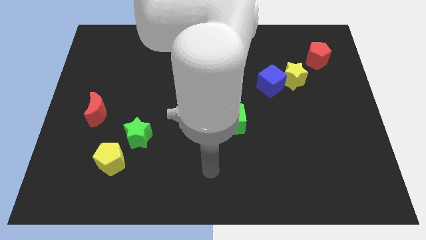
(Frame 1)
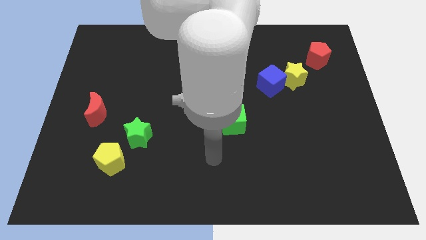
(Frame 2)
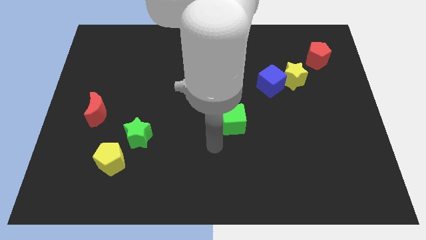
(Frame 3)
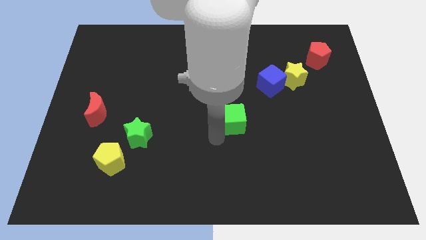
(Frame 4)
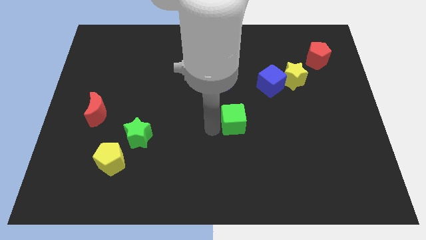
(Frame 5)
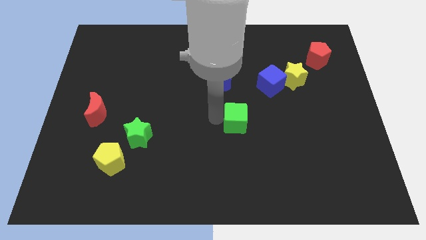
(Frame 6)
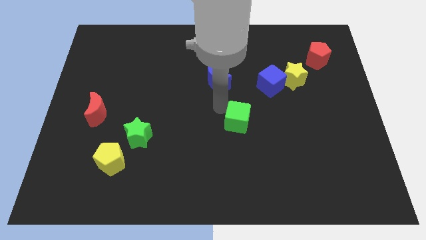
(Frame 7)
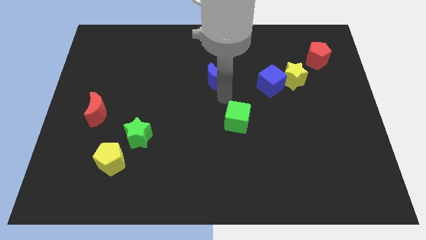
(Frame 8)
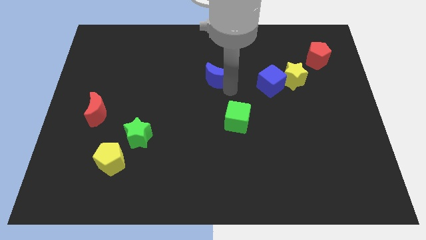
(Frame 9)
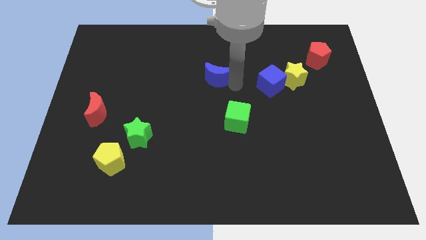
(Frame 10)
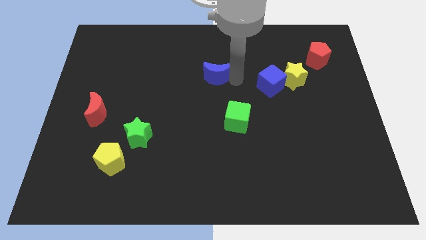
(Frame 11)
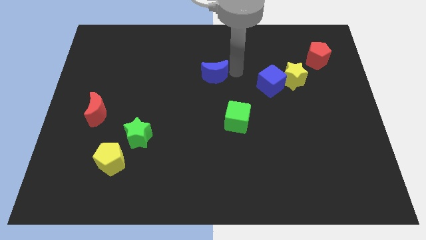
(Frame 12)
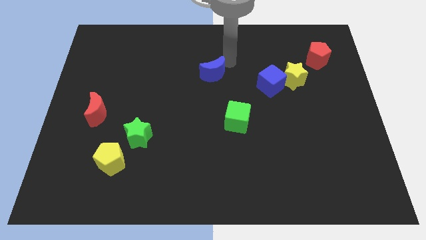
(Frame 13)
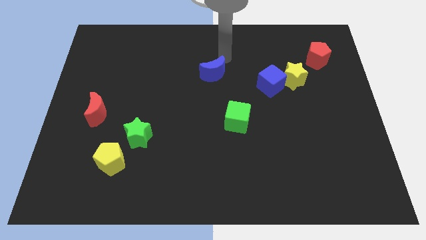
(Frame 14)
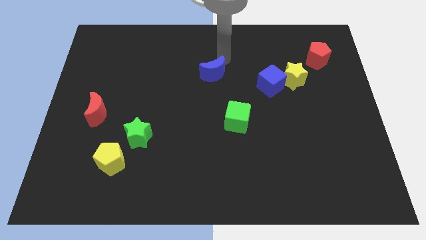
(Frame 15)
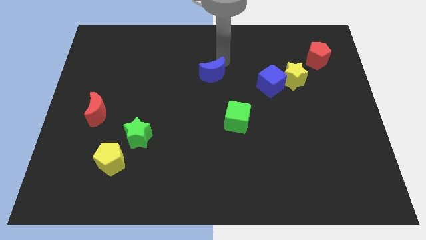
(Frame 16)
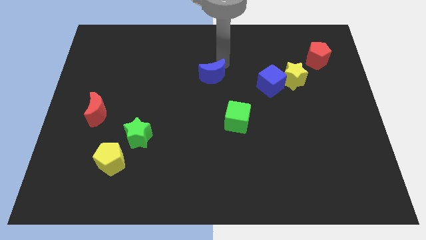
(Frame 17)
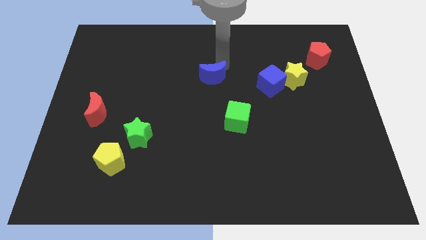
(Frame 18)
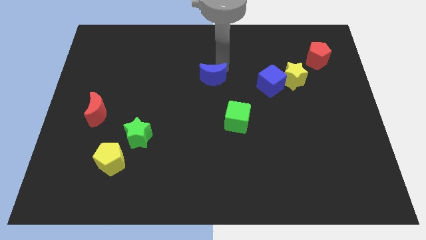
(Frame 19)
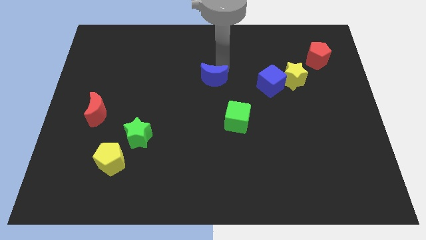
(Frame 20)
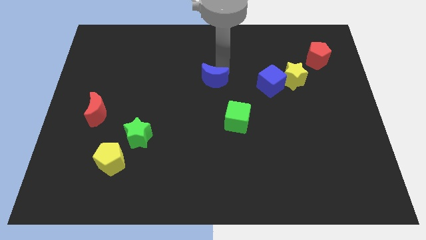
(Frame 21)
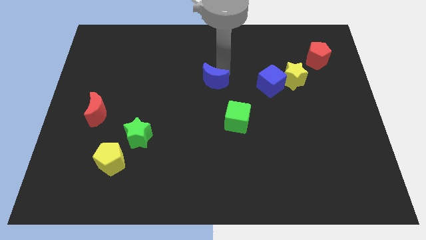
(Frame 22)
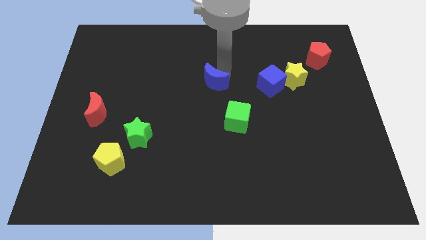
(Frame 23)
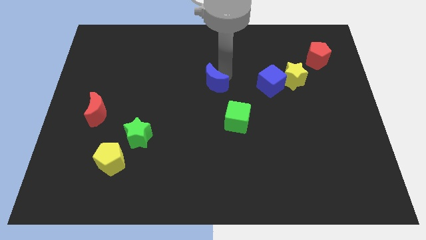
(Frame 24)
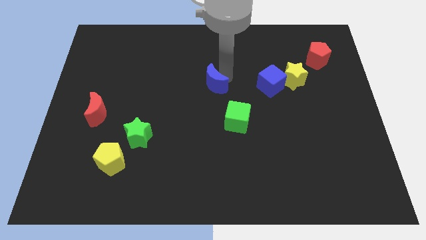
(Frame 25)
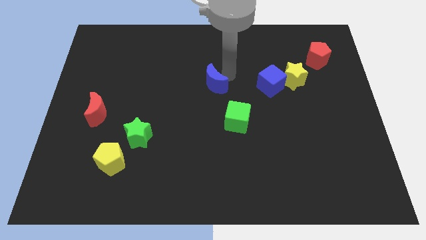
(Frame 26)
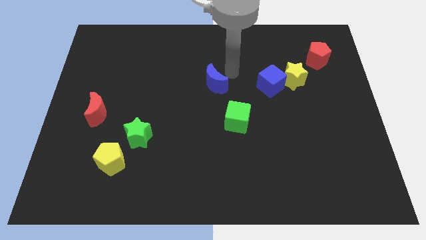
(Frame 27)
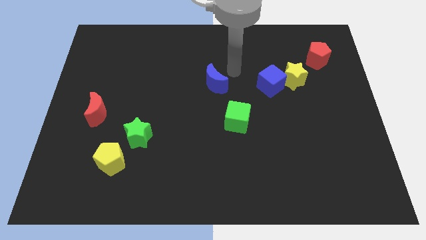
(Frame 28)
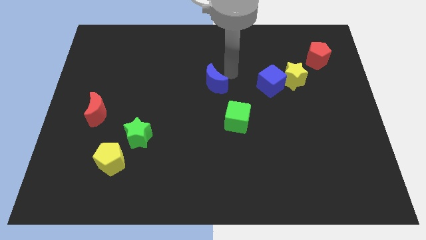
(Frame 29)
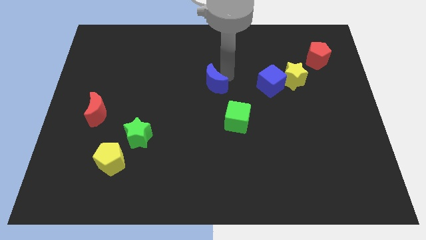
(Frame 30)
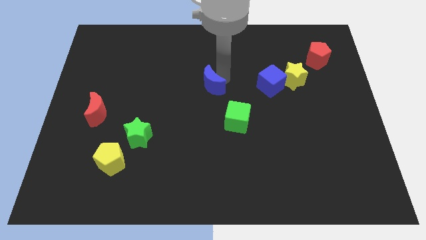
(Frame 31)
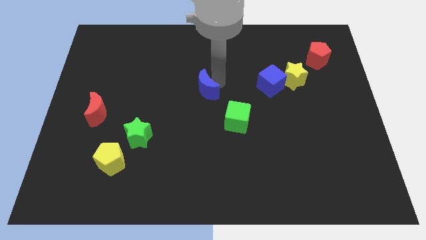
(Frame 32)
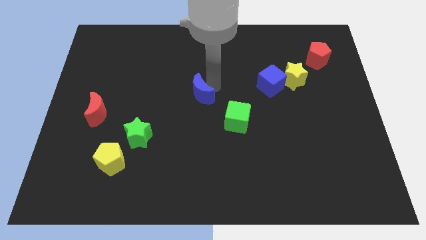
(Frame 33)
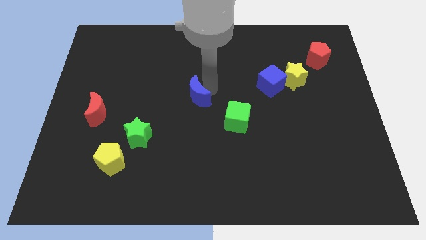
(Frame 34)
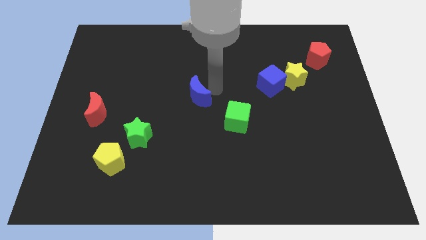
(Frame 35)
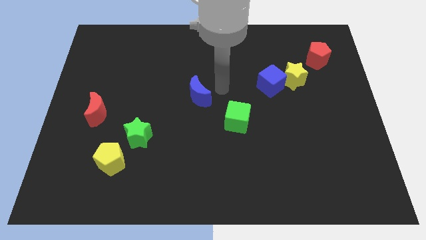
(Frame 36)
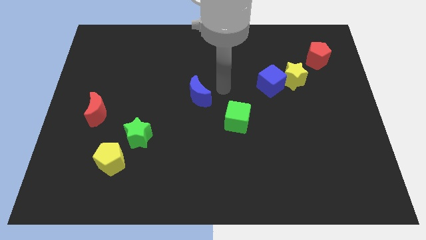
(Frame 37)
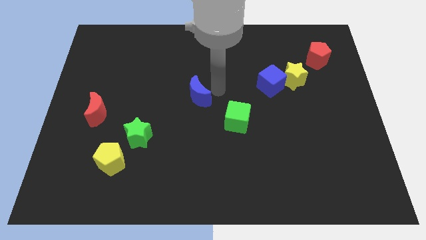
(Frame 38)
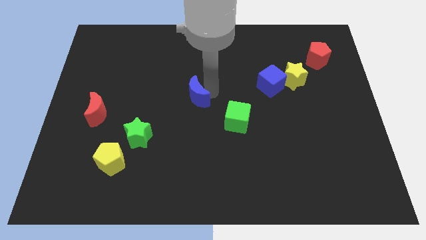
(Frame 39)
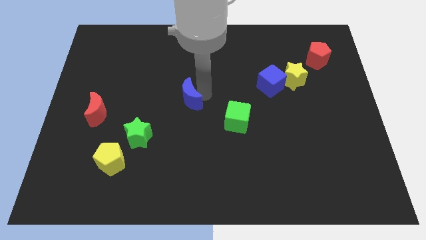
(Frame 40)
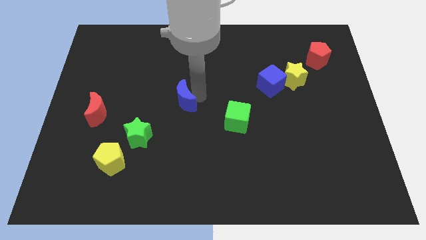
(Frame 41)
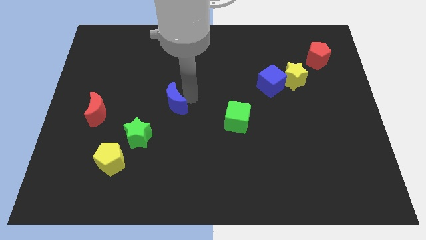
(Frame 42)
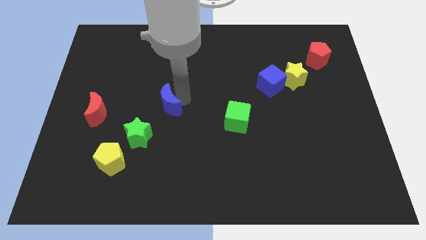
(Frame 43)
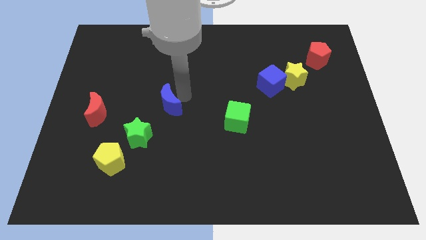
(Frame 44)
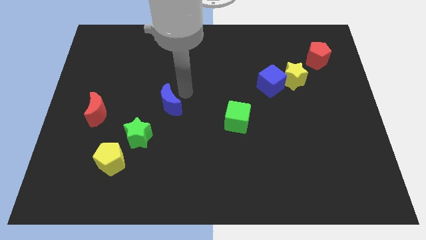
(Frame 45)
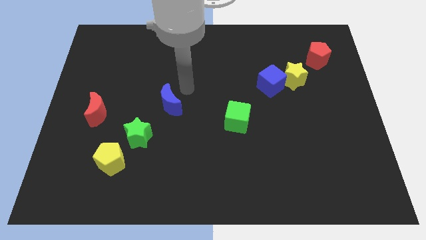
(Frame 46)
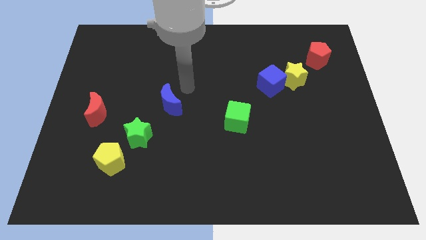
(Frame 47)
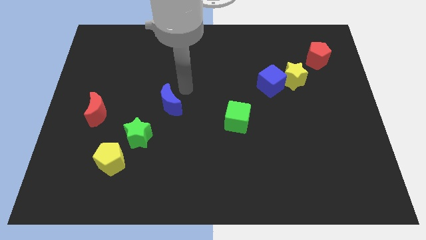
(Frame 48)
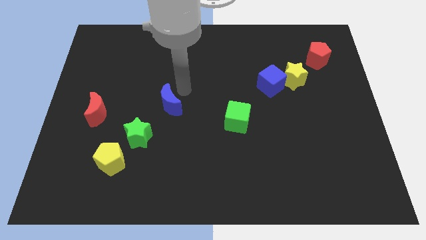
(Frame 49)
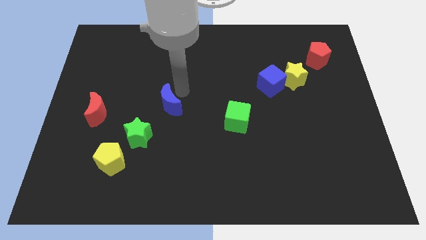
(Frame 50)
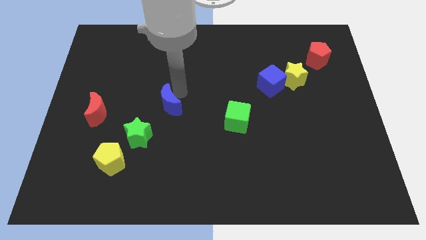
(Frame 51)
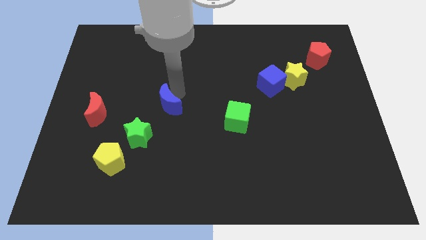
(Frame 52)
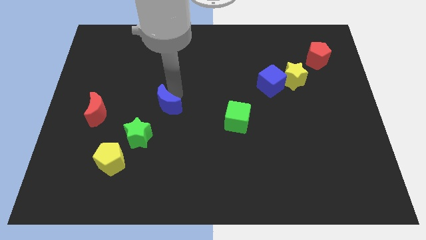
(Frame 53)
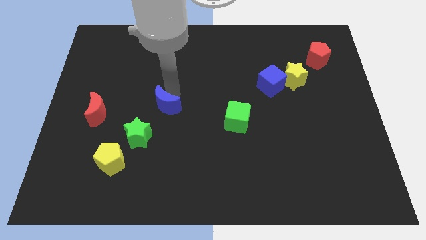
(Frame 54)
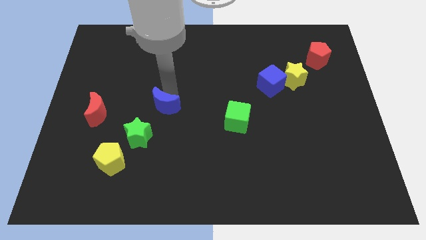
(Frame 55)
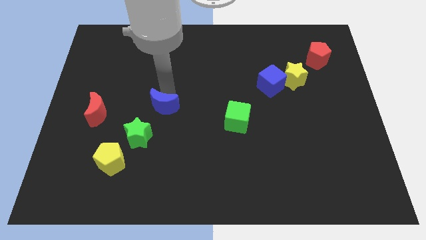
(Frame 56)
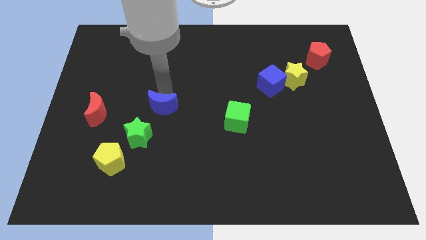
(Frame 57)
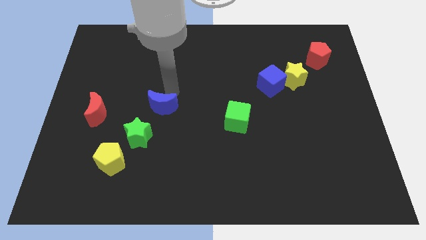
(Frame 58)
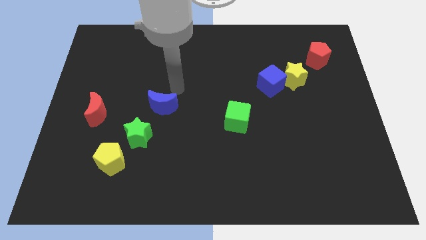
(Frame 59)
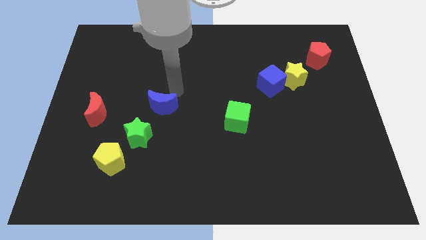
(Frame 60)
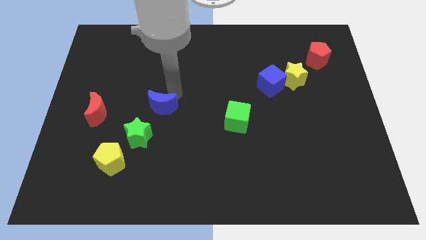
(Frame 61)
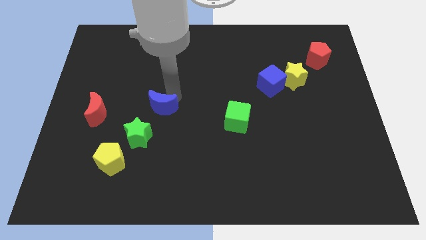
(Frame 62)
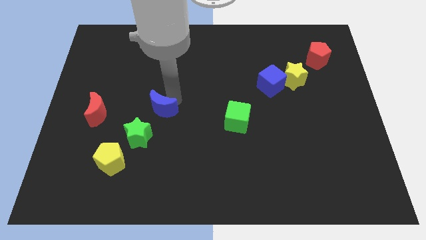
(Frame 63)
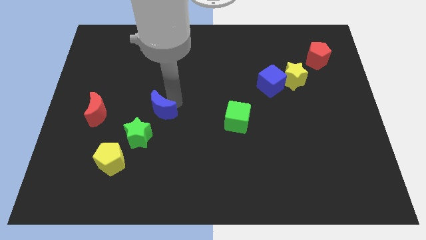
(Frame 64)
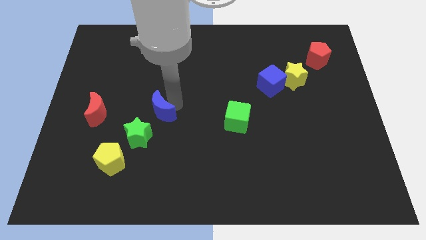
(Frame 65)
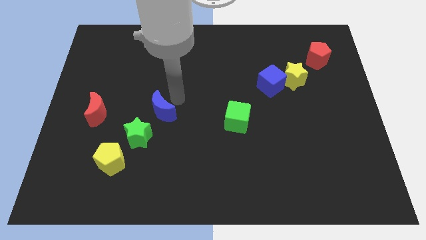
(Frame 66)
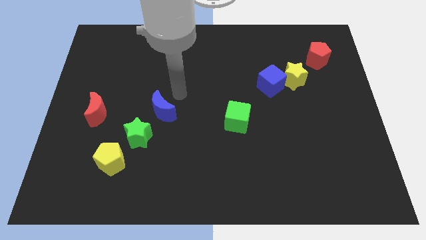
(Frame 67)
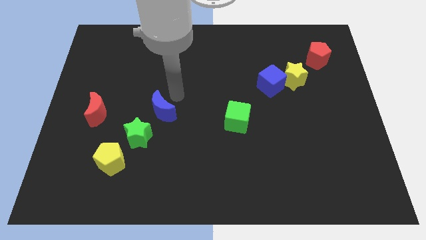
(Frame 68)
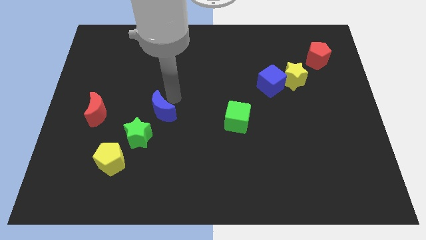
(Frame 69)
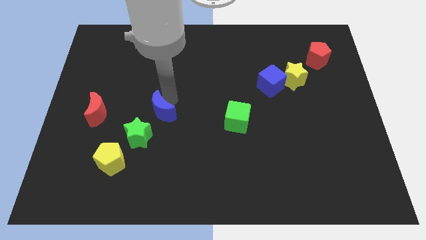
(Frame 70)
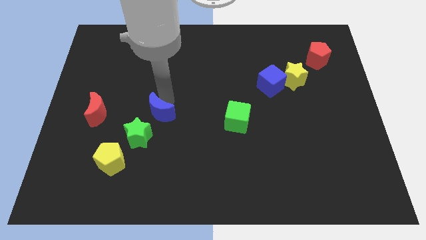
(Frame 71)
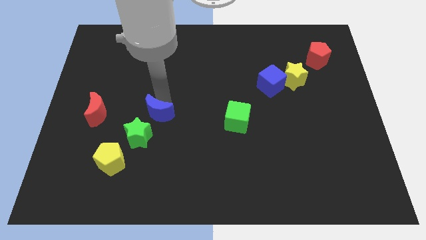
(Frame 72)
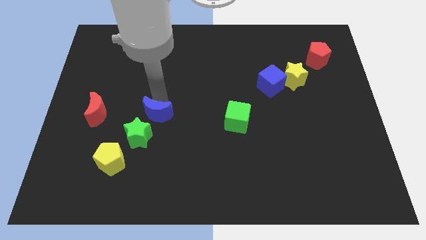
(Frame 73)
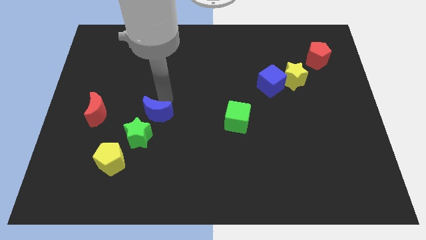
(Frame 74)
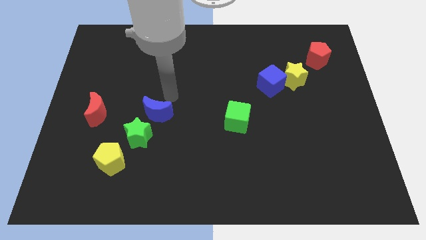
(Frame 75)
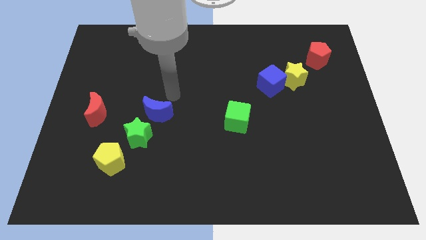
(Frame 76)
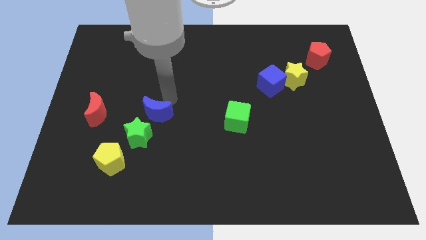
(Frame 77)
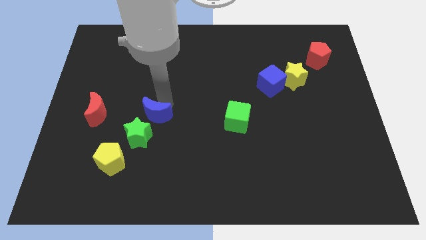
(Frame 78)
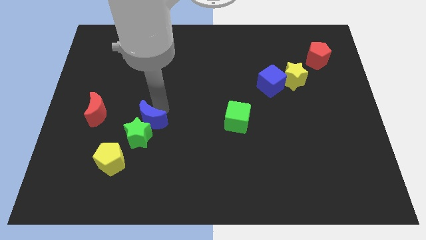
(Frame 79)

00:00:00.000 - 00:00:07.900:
push the blue moon to the green star

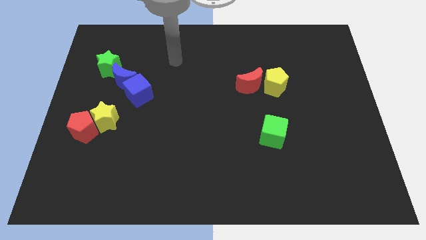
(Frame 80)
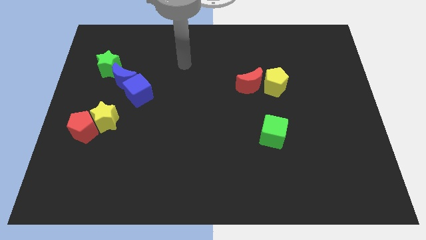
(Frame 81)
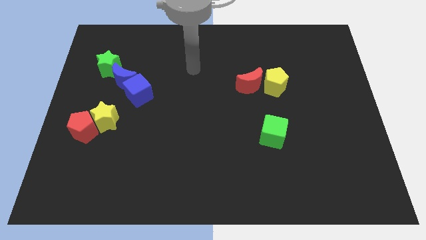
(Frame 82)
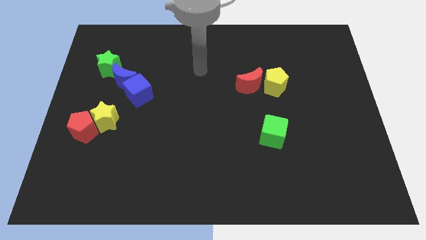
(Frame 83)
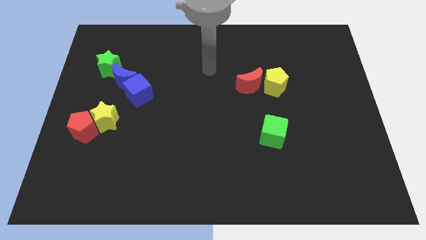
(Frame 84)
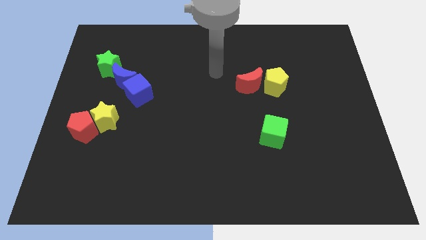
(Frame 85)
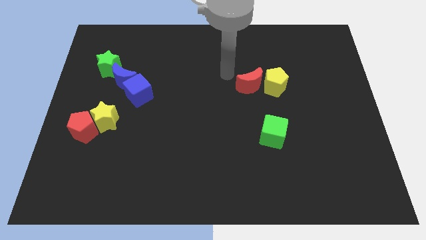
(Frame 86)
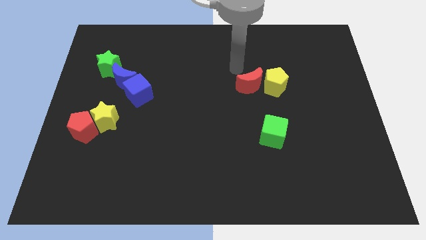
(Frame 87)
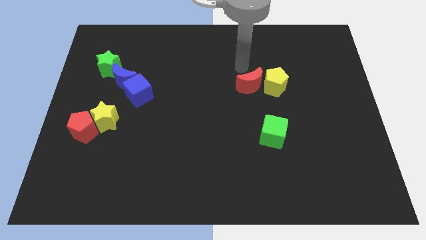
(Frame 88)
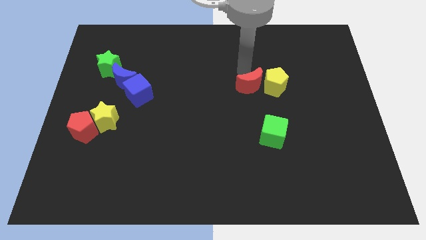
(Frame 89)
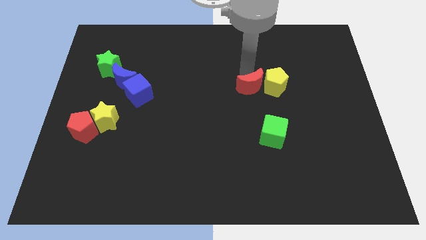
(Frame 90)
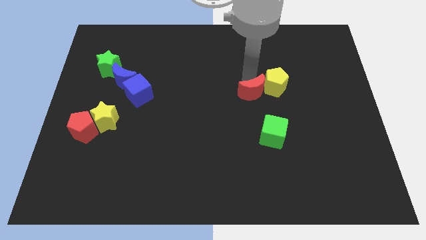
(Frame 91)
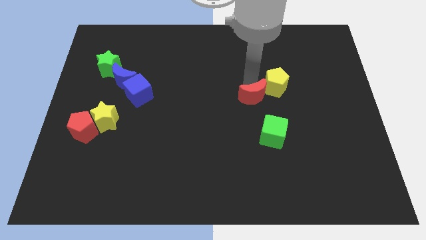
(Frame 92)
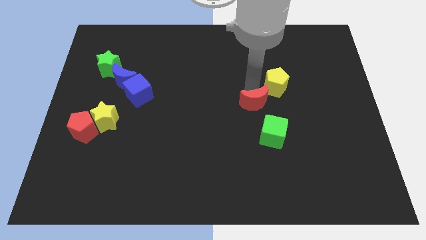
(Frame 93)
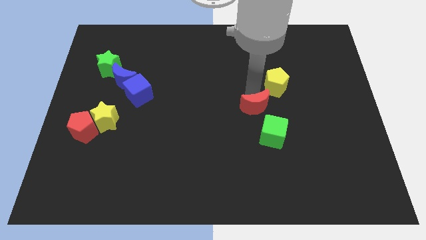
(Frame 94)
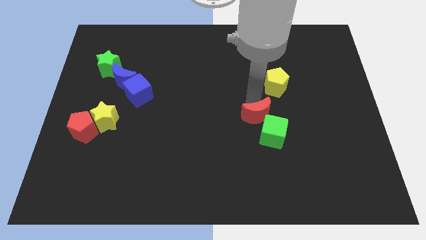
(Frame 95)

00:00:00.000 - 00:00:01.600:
push the red moon close to the green cube
